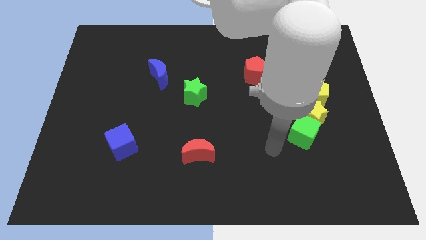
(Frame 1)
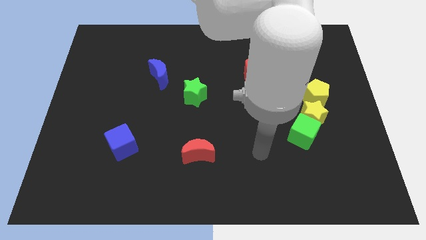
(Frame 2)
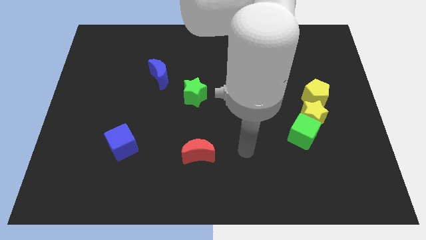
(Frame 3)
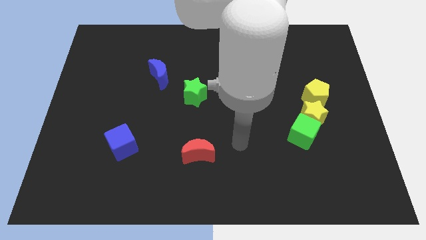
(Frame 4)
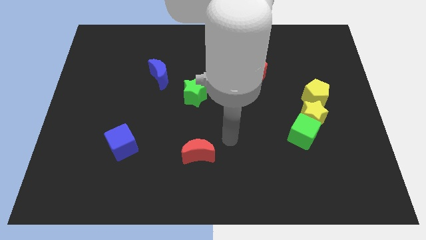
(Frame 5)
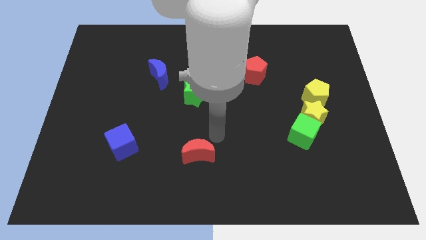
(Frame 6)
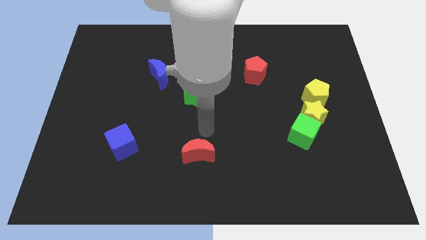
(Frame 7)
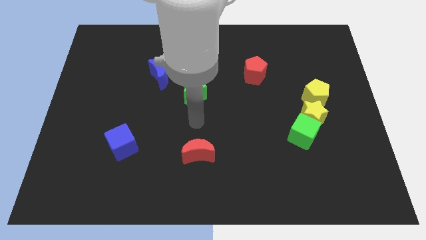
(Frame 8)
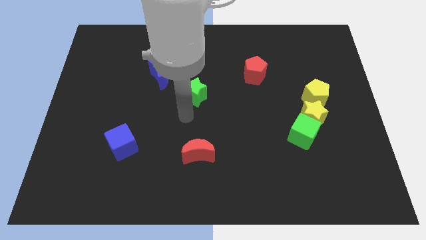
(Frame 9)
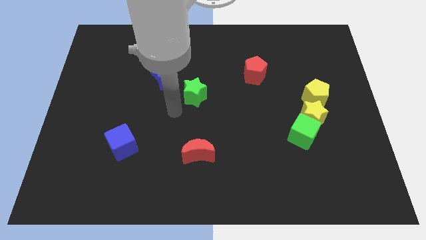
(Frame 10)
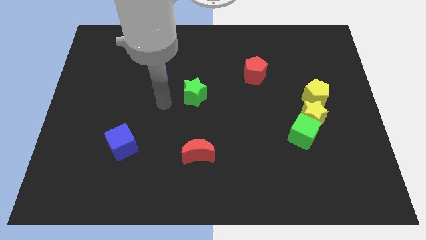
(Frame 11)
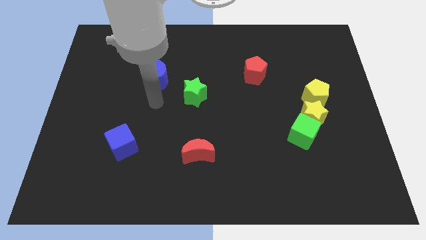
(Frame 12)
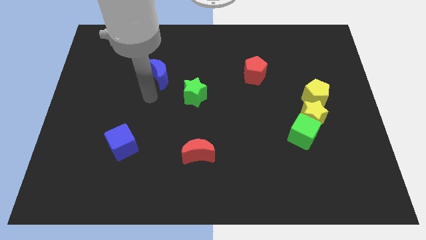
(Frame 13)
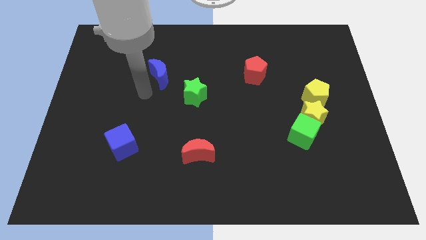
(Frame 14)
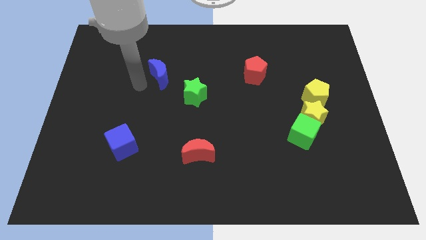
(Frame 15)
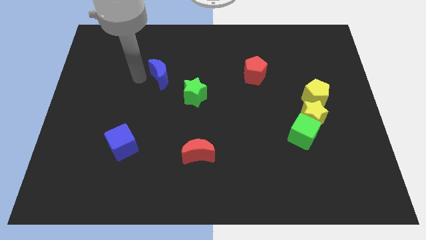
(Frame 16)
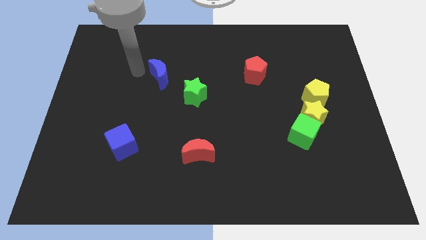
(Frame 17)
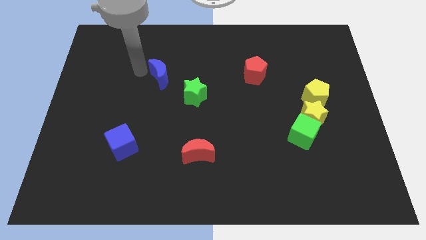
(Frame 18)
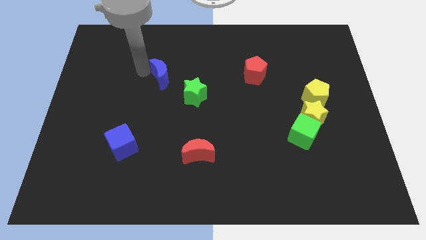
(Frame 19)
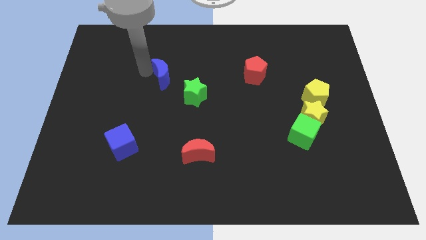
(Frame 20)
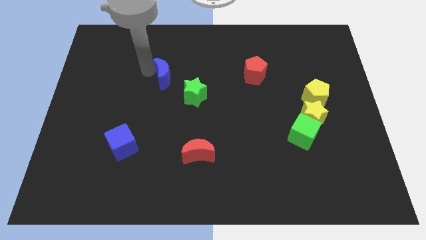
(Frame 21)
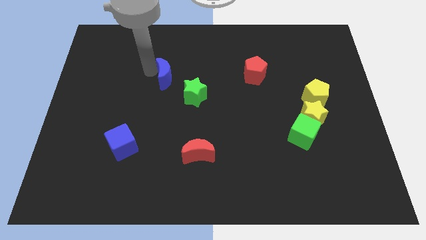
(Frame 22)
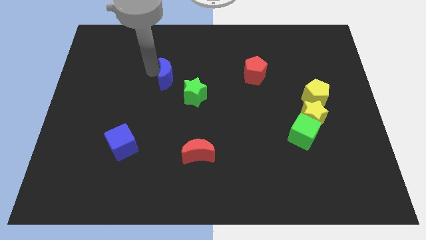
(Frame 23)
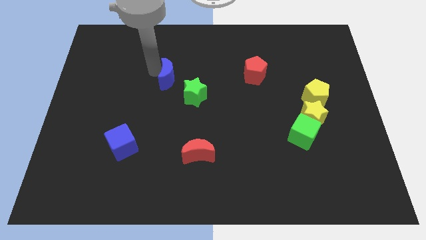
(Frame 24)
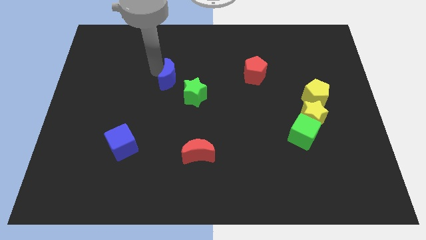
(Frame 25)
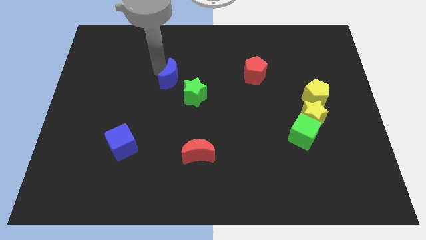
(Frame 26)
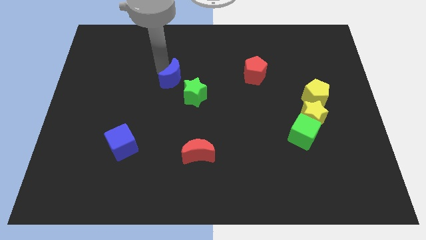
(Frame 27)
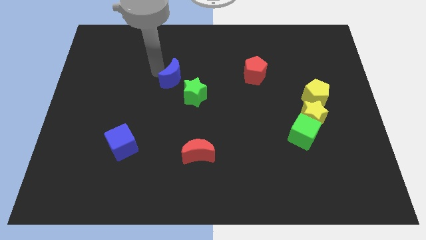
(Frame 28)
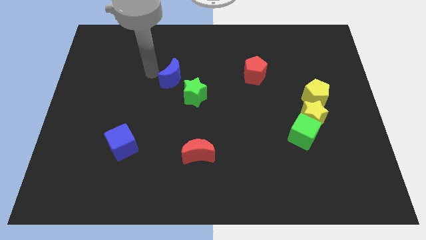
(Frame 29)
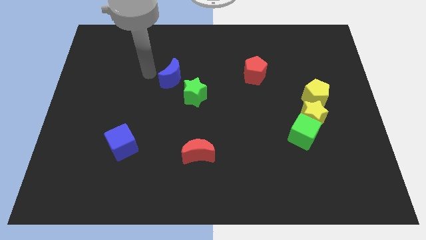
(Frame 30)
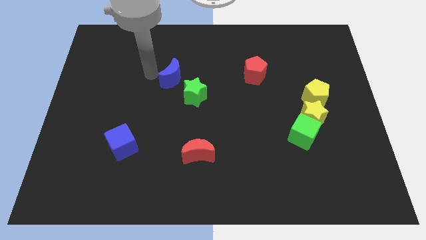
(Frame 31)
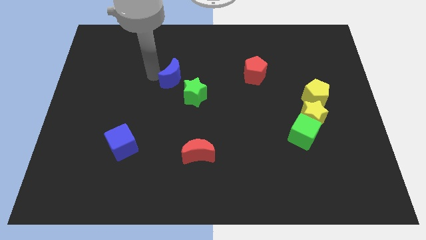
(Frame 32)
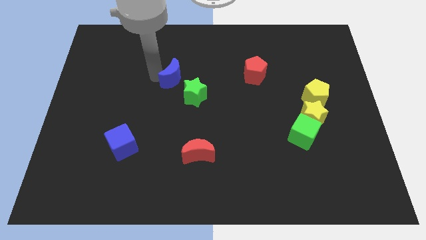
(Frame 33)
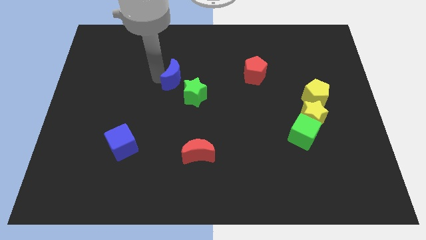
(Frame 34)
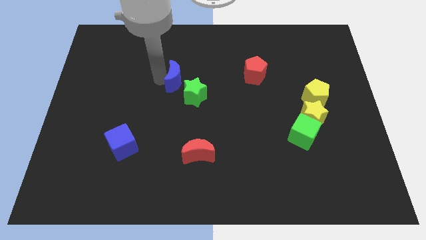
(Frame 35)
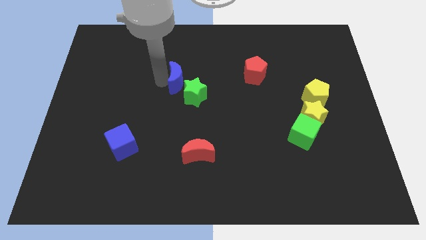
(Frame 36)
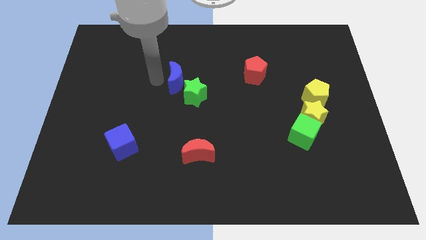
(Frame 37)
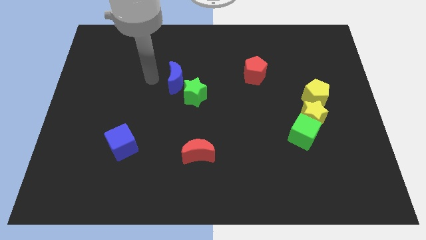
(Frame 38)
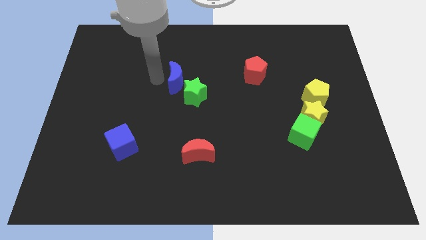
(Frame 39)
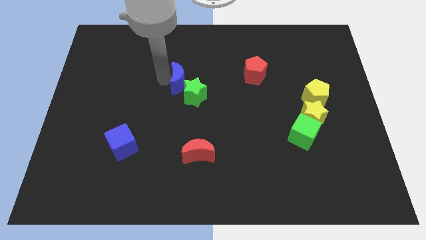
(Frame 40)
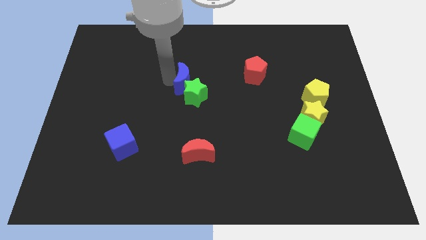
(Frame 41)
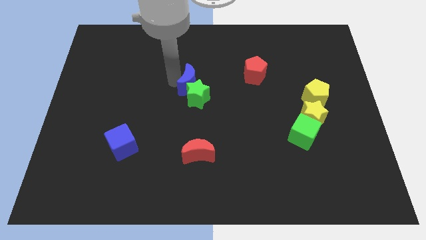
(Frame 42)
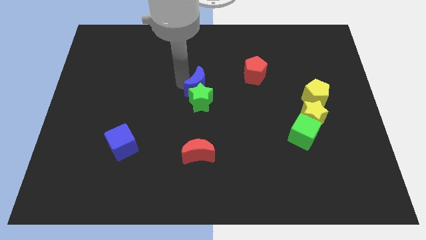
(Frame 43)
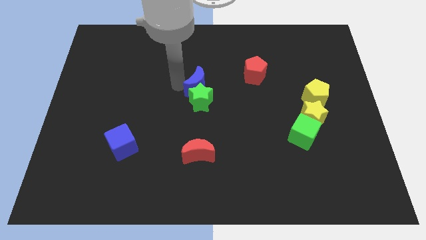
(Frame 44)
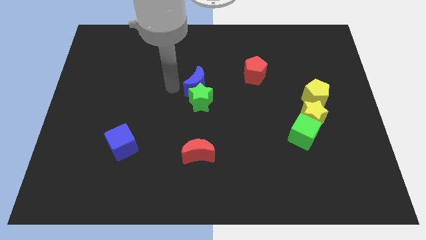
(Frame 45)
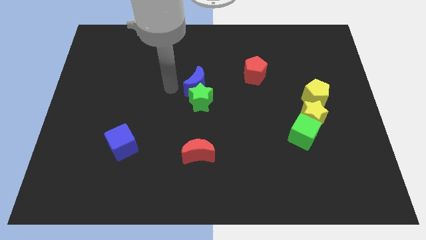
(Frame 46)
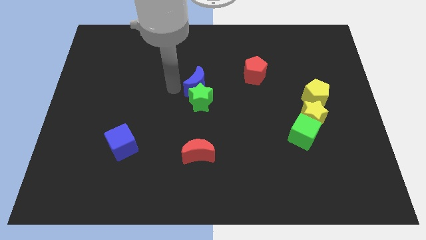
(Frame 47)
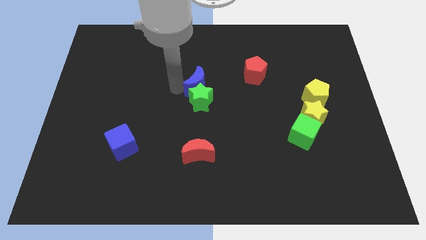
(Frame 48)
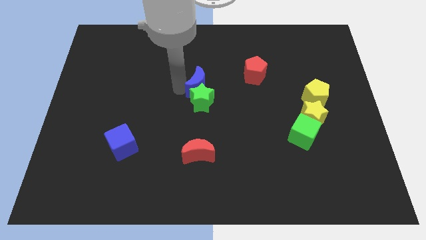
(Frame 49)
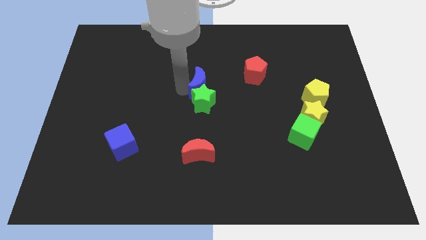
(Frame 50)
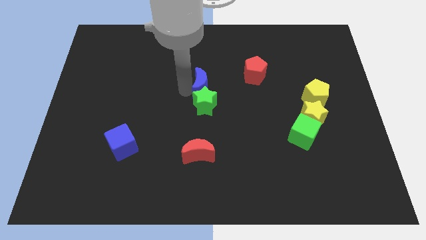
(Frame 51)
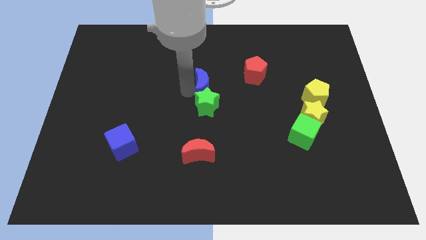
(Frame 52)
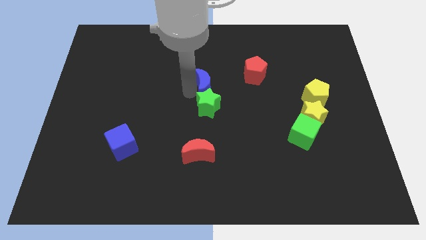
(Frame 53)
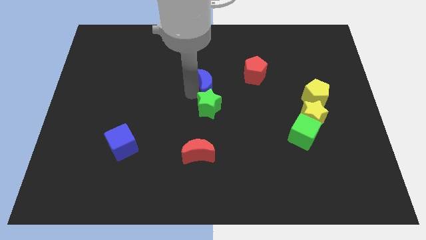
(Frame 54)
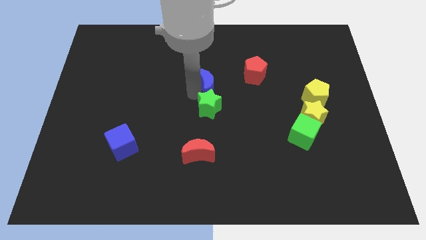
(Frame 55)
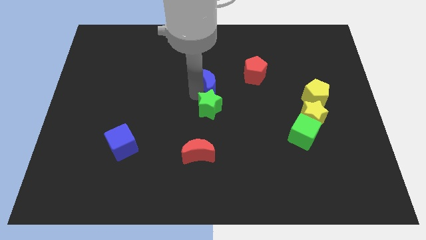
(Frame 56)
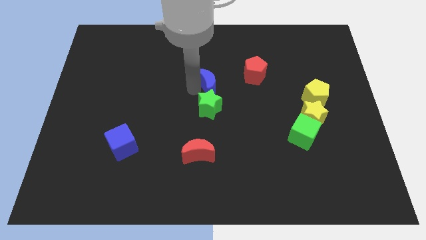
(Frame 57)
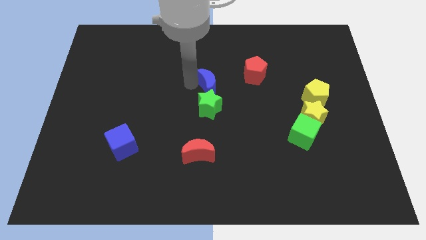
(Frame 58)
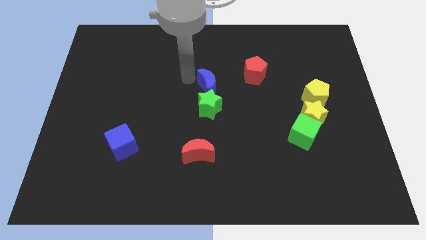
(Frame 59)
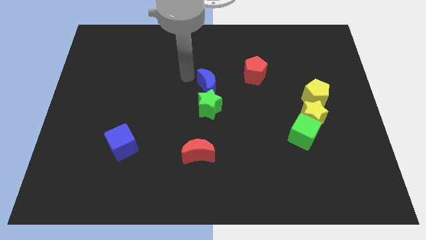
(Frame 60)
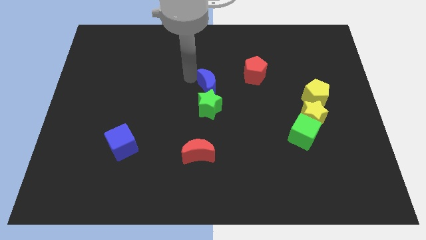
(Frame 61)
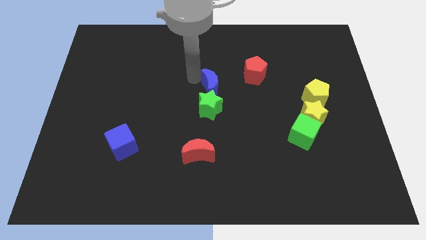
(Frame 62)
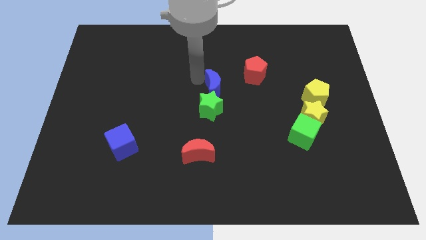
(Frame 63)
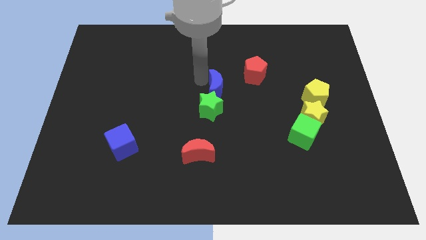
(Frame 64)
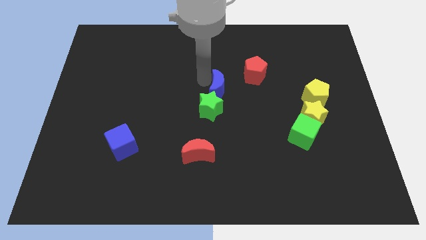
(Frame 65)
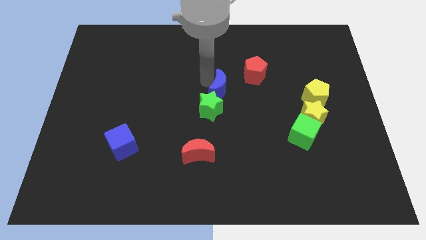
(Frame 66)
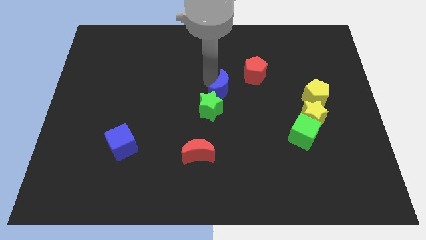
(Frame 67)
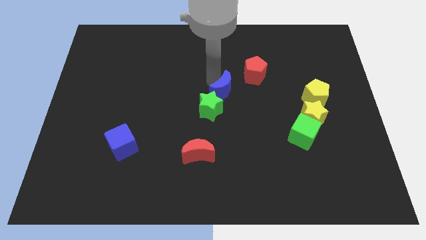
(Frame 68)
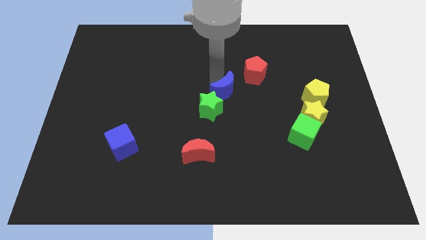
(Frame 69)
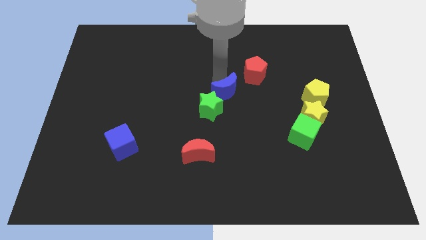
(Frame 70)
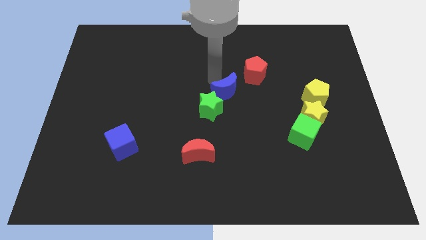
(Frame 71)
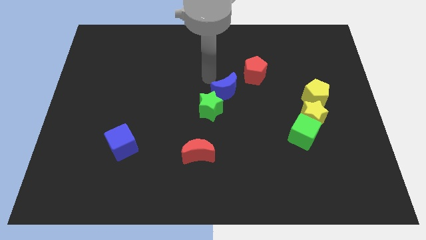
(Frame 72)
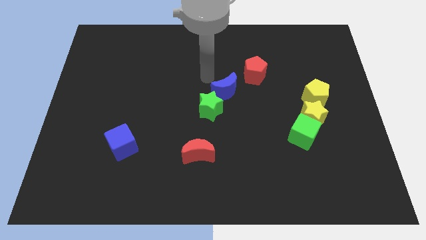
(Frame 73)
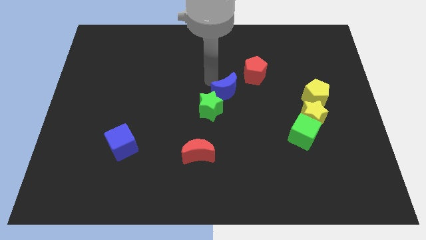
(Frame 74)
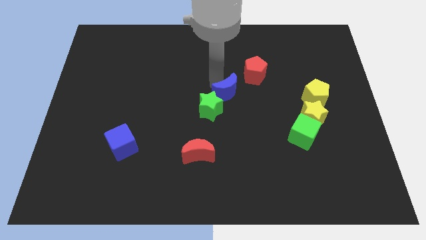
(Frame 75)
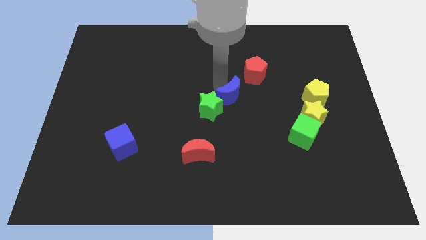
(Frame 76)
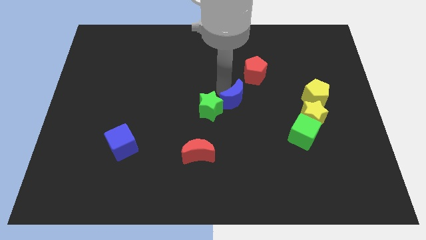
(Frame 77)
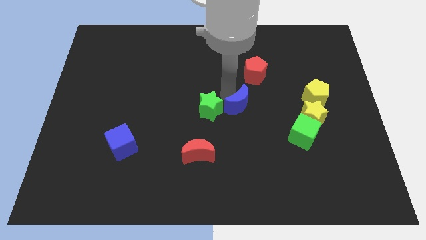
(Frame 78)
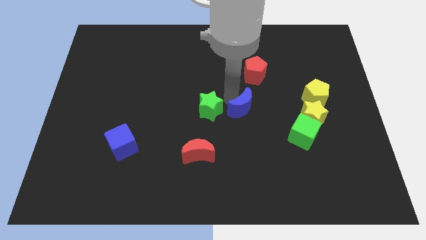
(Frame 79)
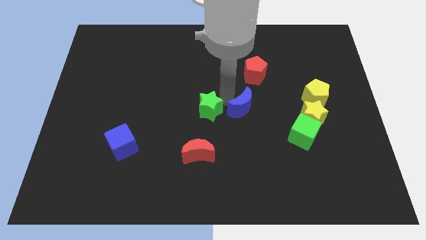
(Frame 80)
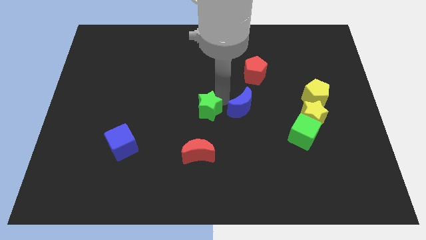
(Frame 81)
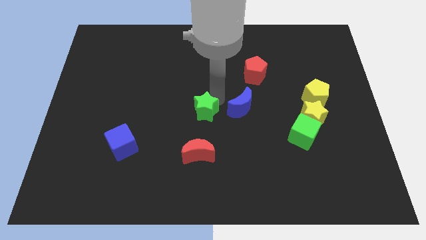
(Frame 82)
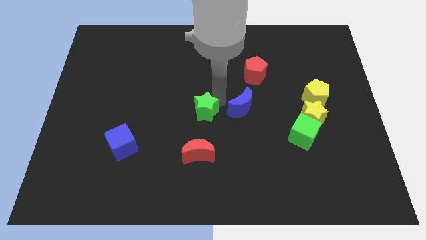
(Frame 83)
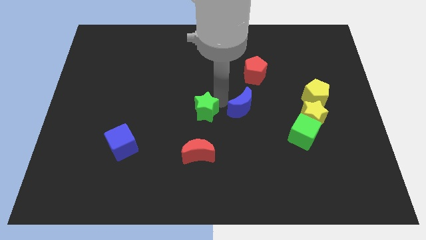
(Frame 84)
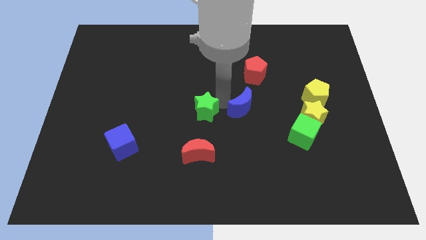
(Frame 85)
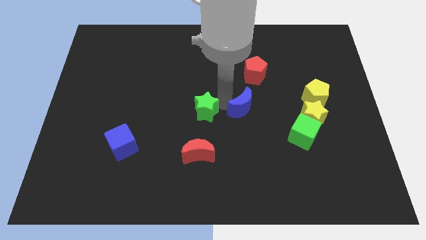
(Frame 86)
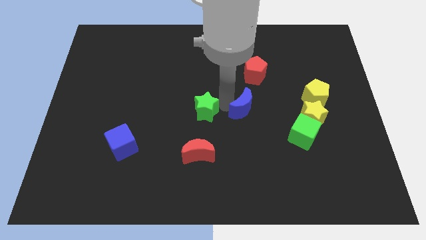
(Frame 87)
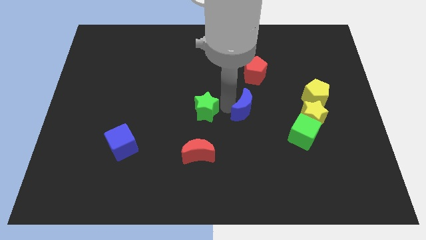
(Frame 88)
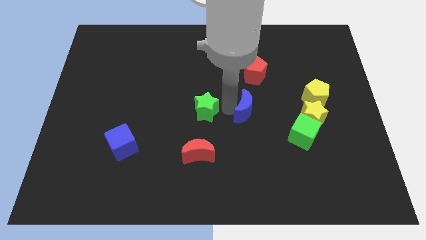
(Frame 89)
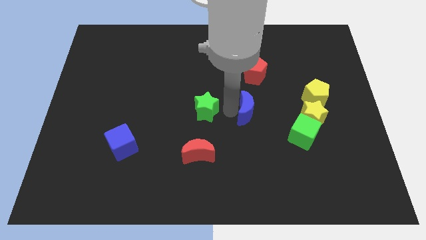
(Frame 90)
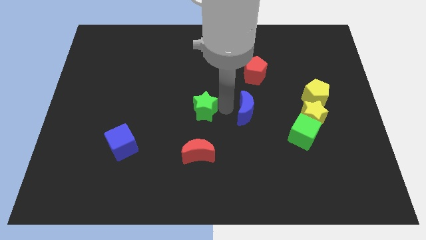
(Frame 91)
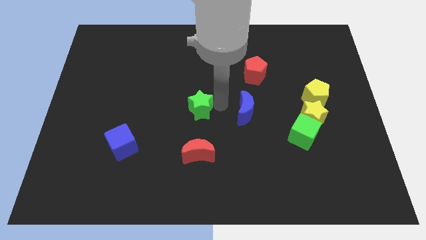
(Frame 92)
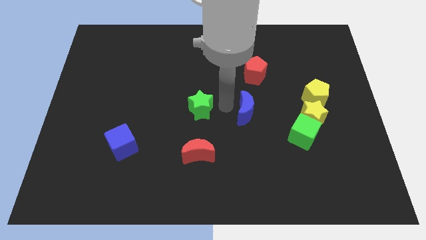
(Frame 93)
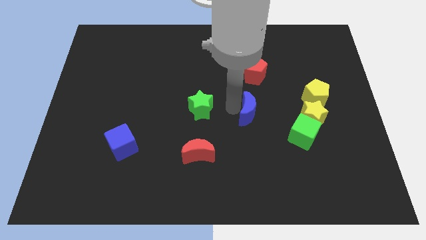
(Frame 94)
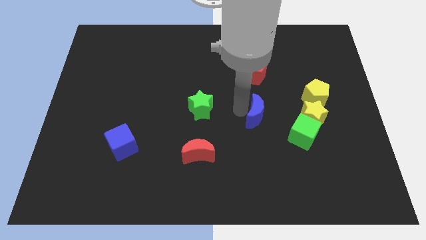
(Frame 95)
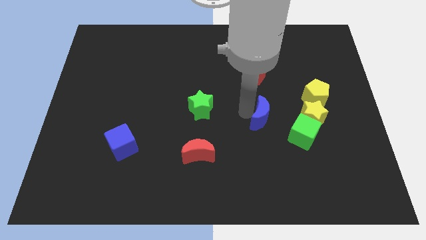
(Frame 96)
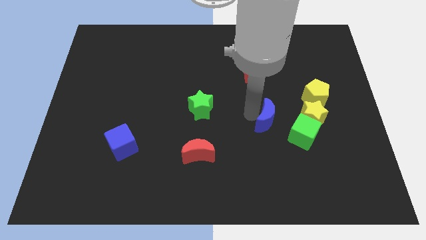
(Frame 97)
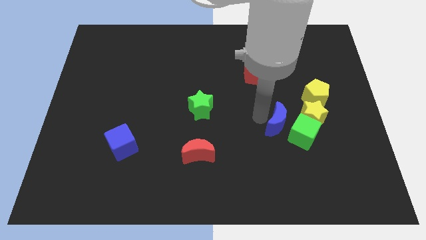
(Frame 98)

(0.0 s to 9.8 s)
put the blue moon towards the green cube
